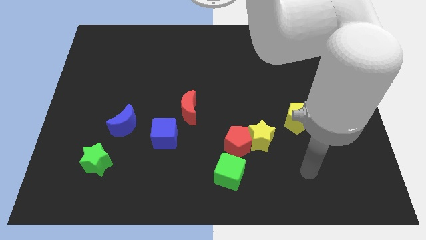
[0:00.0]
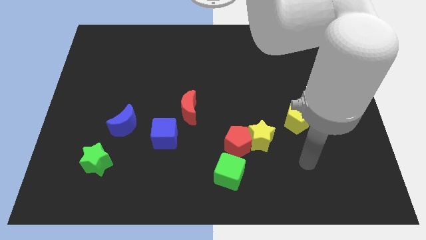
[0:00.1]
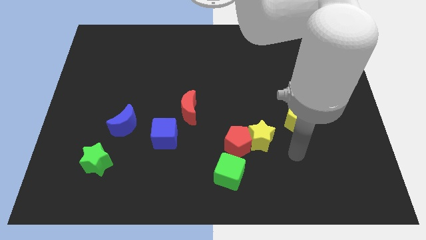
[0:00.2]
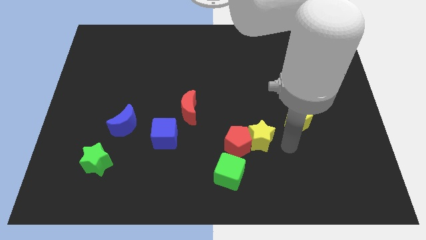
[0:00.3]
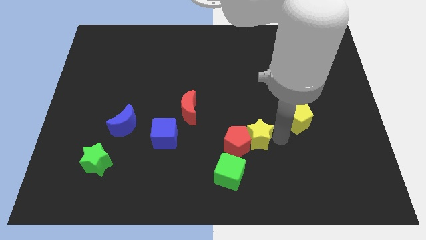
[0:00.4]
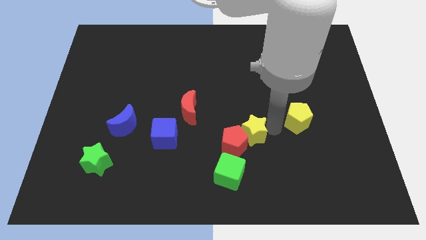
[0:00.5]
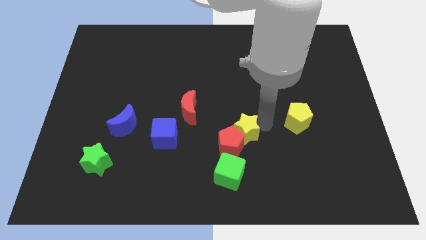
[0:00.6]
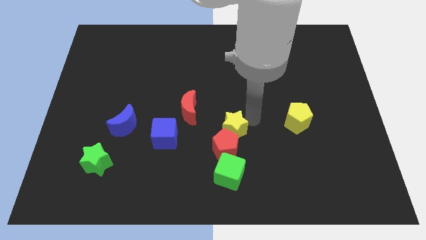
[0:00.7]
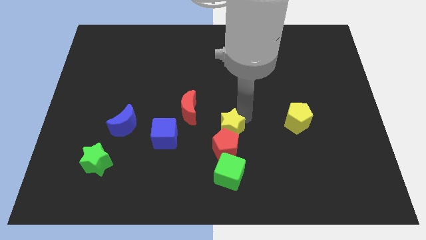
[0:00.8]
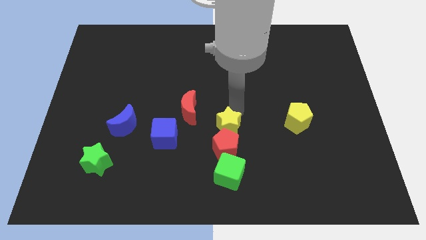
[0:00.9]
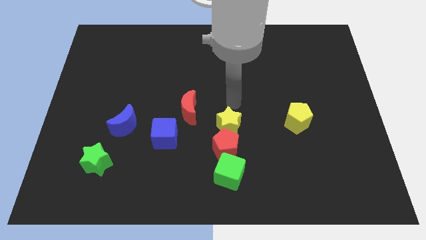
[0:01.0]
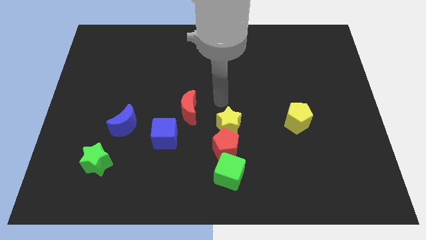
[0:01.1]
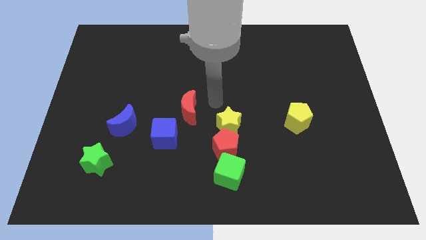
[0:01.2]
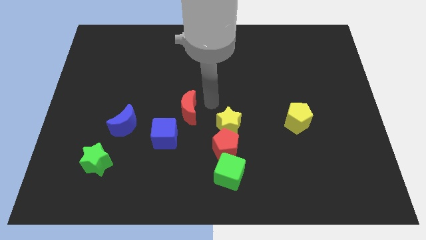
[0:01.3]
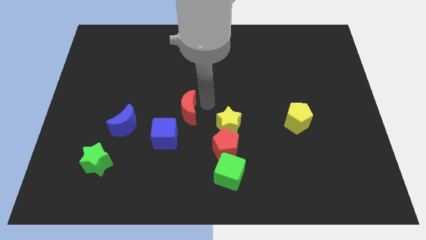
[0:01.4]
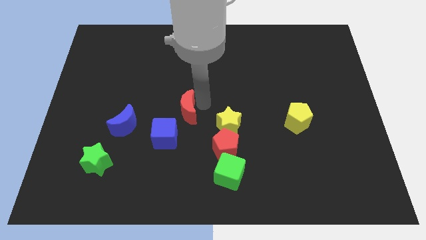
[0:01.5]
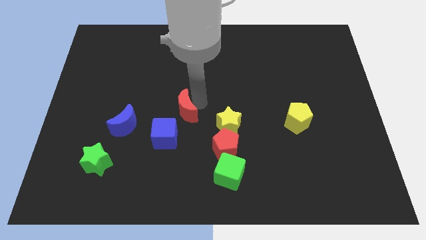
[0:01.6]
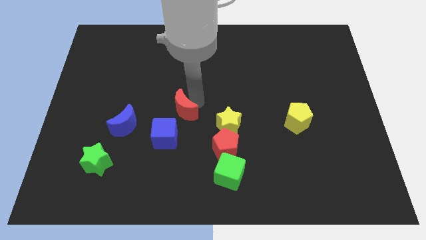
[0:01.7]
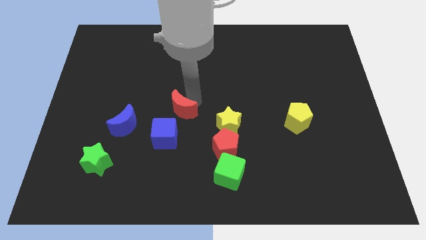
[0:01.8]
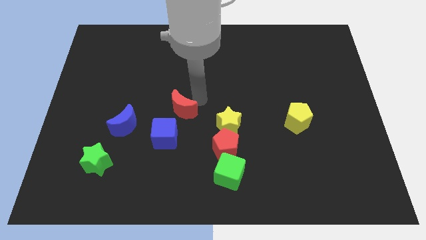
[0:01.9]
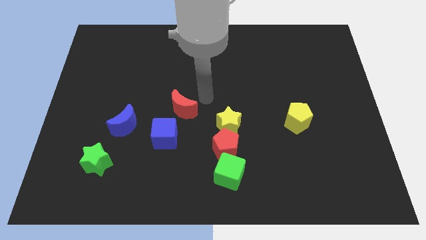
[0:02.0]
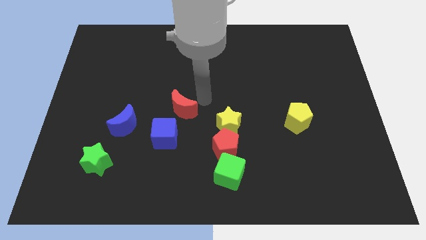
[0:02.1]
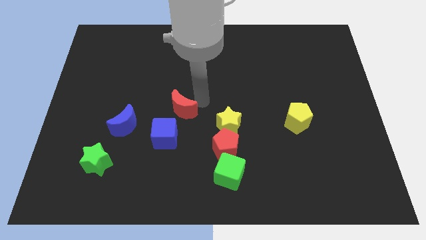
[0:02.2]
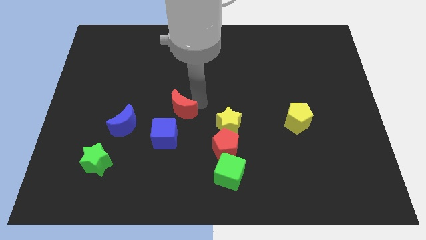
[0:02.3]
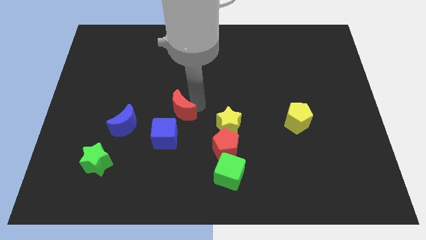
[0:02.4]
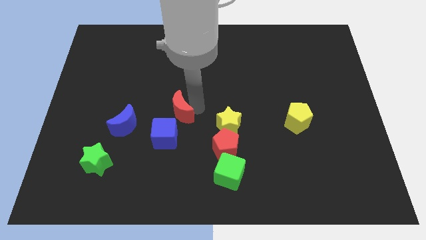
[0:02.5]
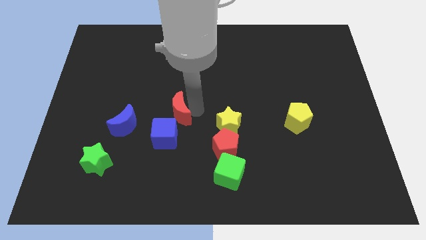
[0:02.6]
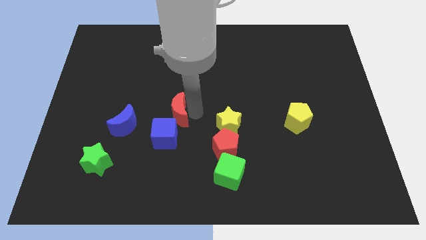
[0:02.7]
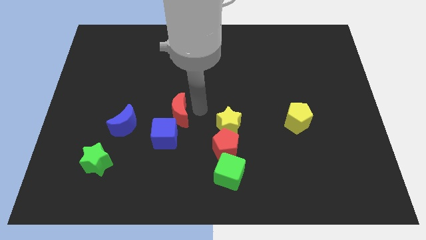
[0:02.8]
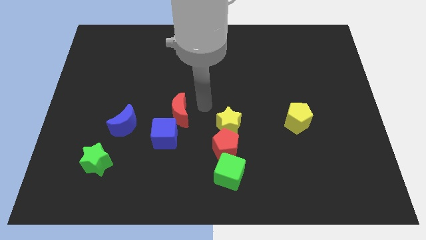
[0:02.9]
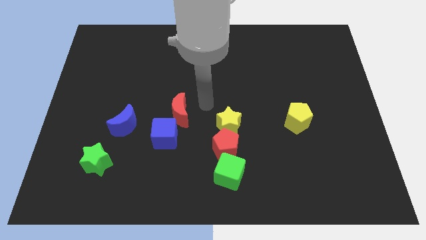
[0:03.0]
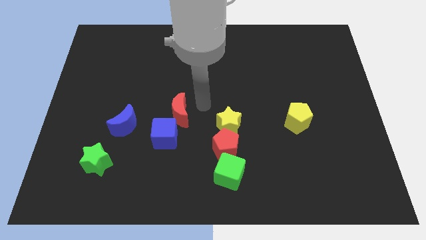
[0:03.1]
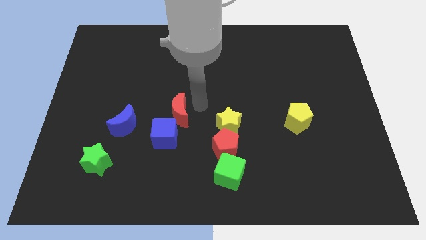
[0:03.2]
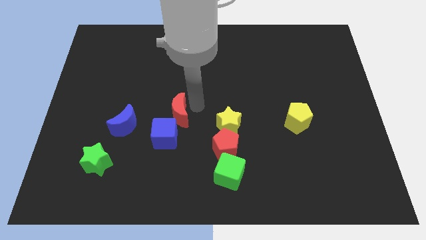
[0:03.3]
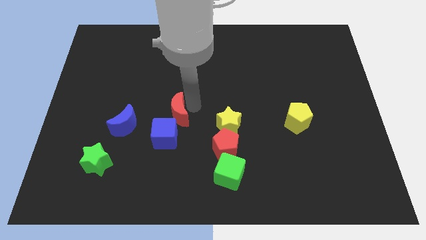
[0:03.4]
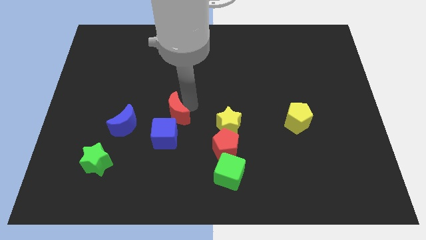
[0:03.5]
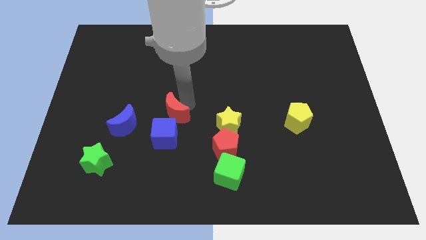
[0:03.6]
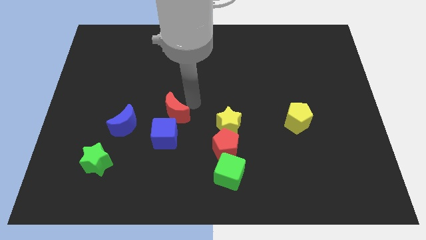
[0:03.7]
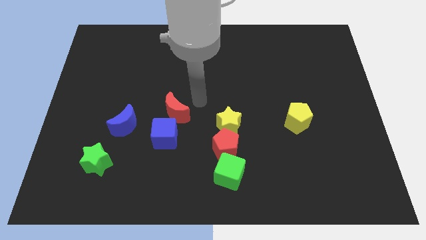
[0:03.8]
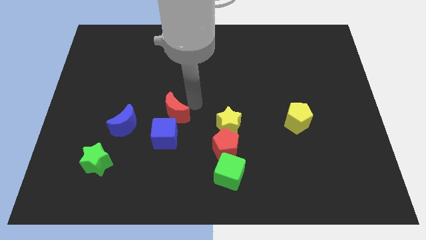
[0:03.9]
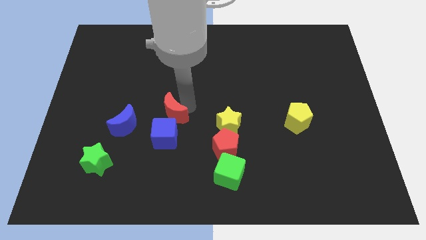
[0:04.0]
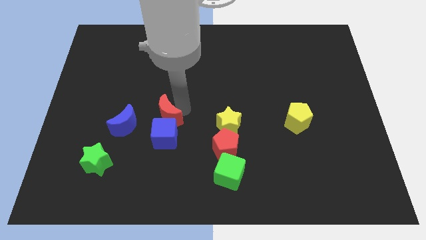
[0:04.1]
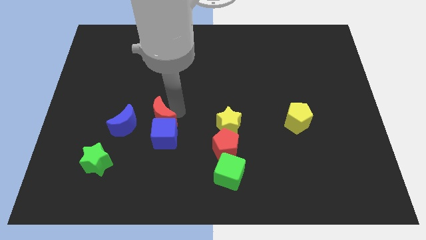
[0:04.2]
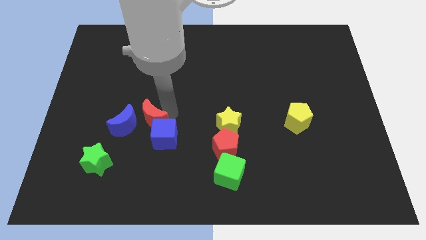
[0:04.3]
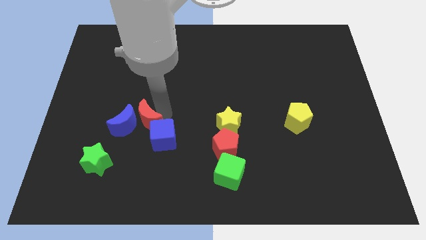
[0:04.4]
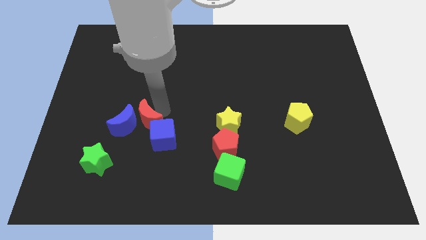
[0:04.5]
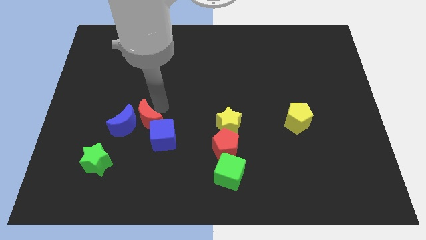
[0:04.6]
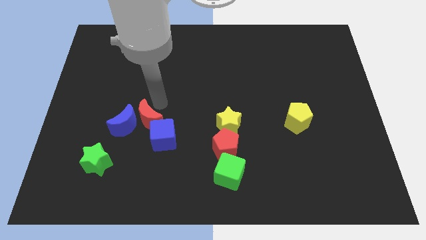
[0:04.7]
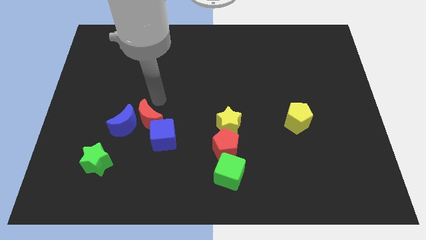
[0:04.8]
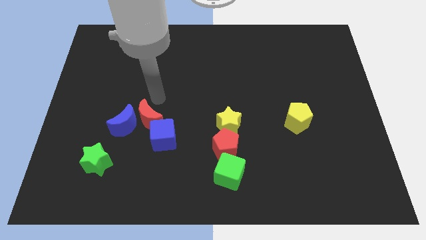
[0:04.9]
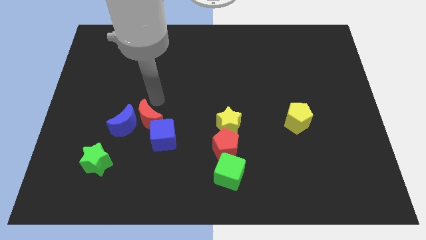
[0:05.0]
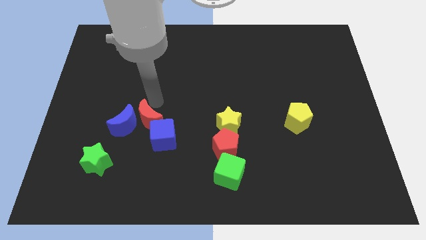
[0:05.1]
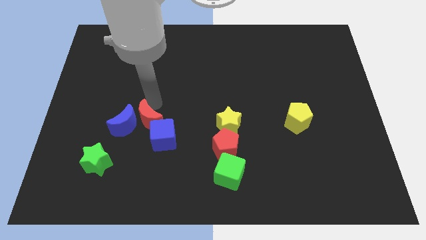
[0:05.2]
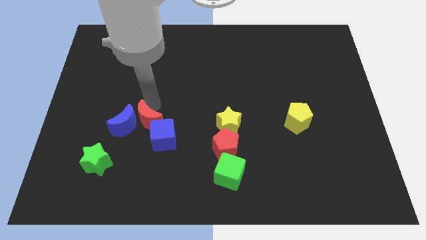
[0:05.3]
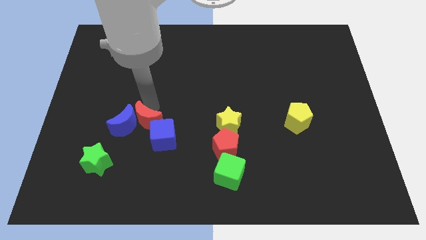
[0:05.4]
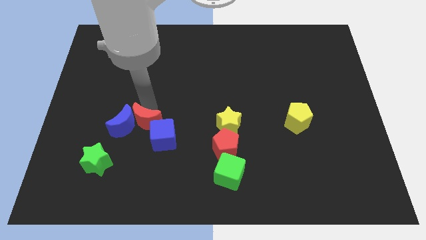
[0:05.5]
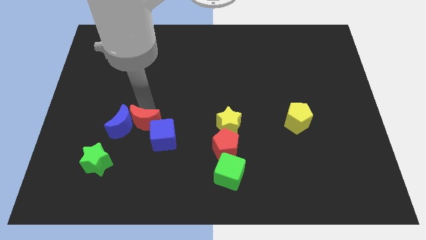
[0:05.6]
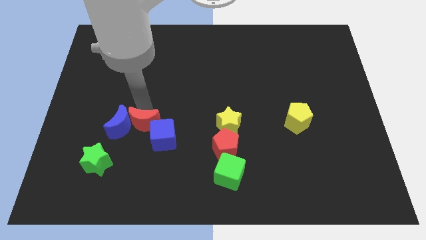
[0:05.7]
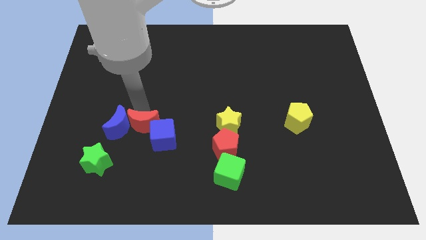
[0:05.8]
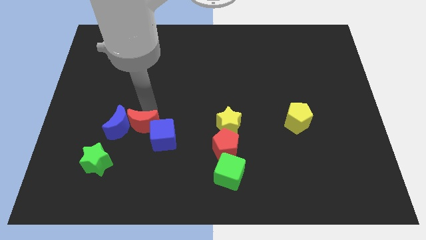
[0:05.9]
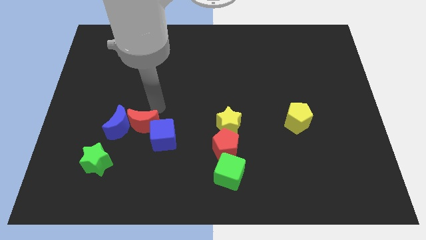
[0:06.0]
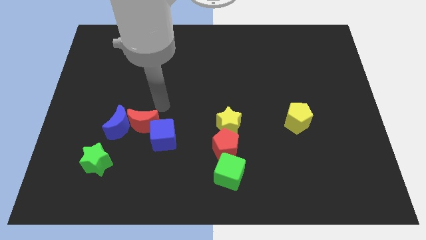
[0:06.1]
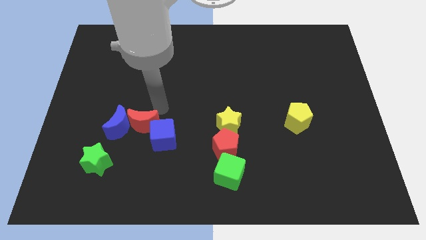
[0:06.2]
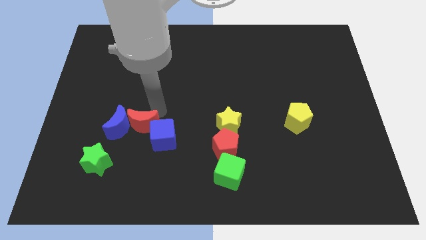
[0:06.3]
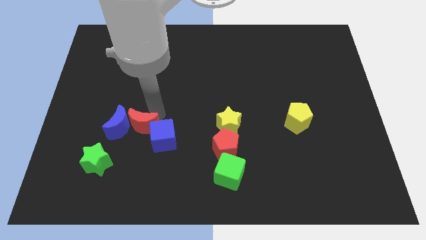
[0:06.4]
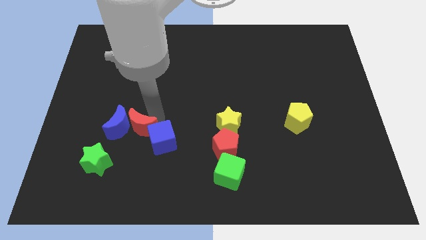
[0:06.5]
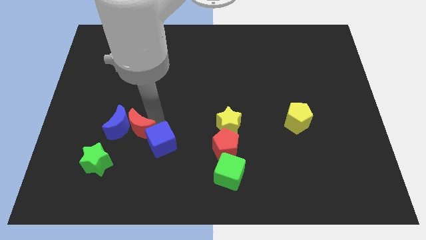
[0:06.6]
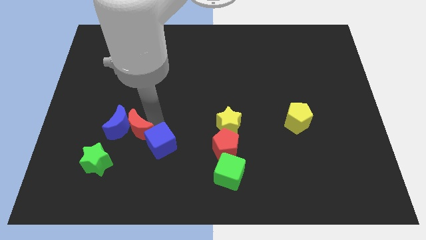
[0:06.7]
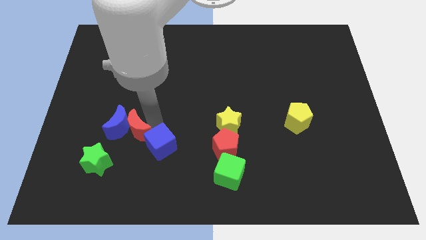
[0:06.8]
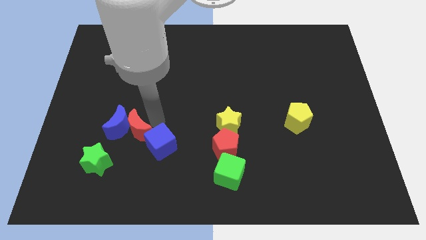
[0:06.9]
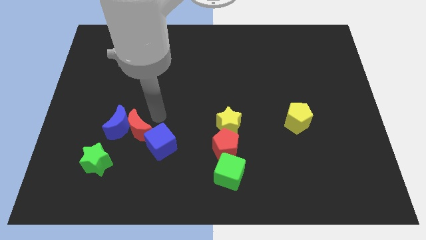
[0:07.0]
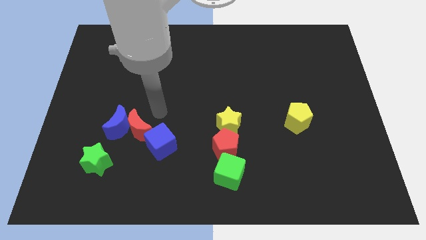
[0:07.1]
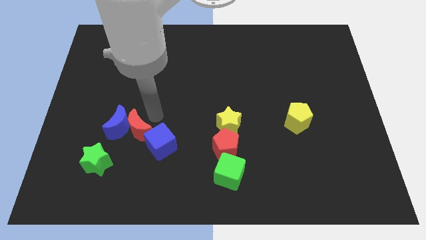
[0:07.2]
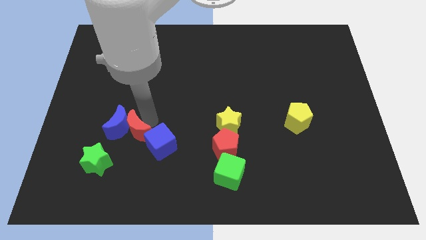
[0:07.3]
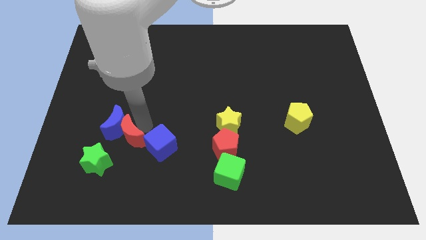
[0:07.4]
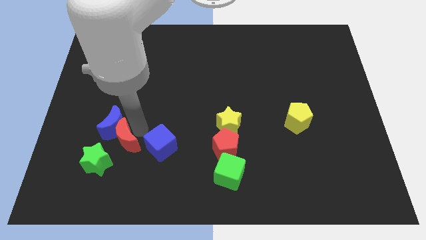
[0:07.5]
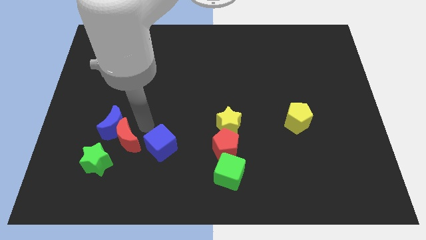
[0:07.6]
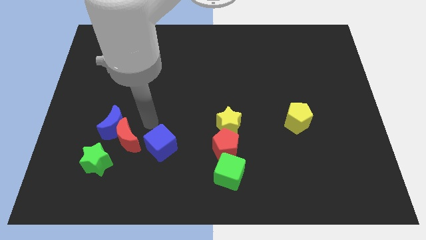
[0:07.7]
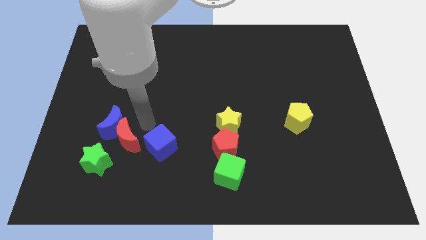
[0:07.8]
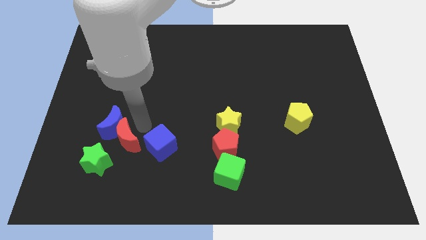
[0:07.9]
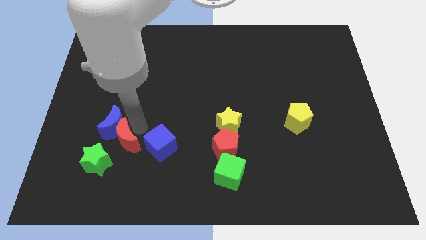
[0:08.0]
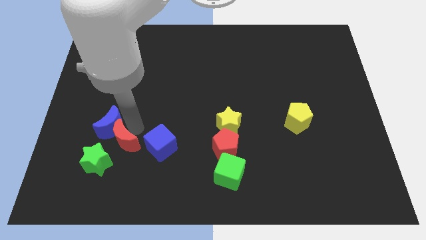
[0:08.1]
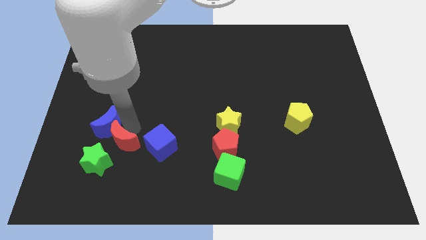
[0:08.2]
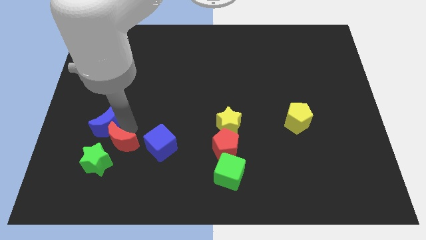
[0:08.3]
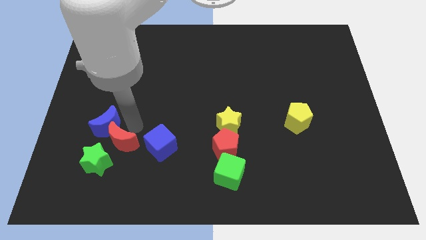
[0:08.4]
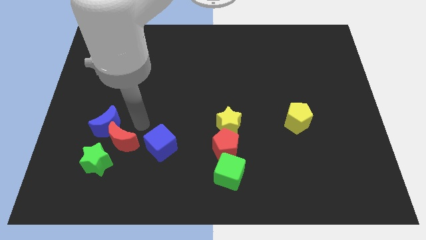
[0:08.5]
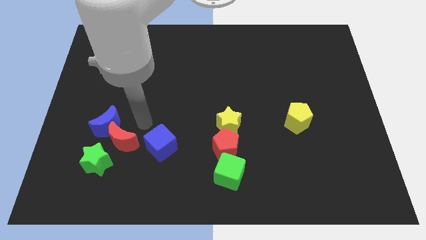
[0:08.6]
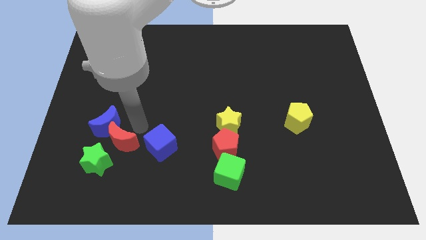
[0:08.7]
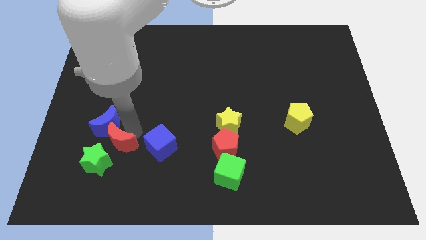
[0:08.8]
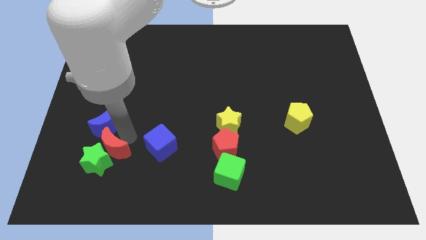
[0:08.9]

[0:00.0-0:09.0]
slide the red moon to the green star
